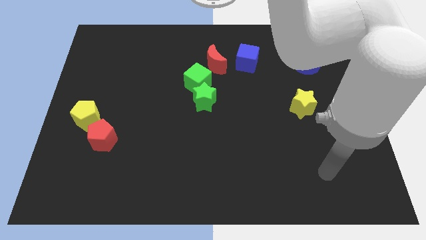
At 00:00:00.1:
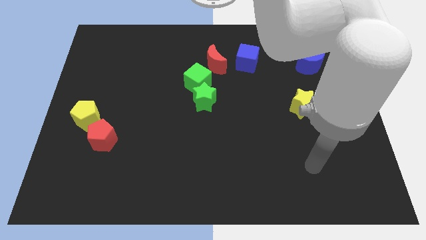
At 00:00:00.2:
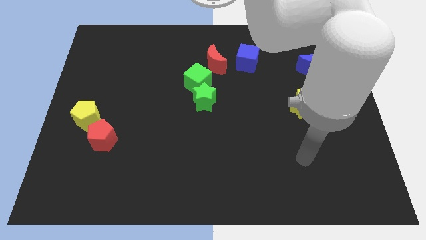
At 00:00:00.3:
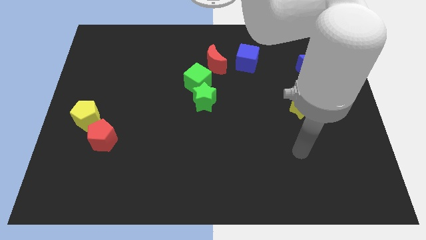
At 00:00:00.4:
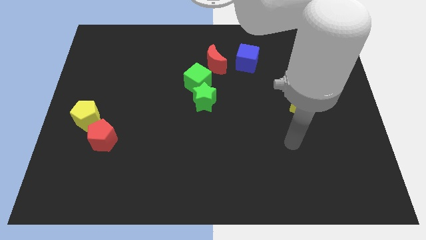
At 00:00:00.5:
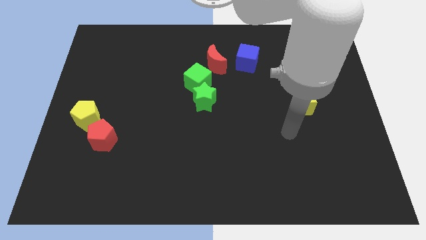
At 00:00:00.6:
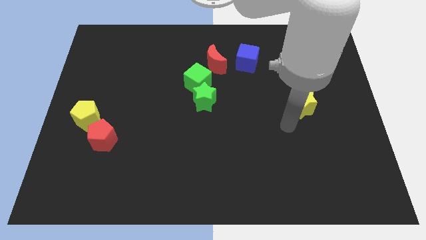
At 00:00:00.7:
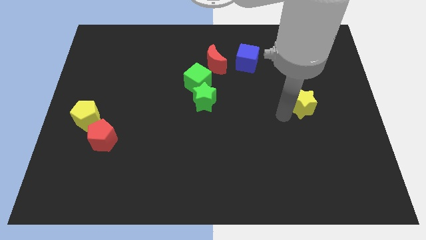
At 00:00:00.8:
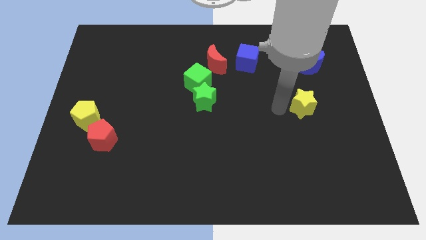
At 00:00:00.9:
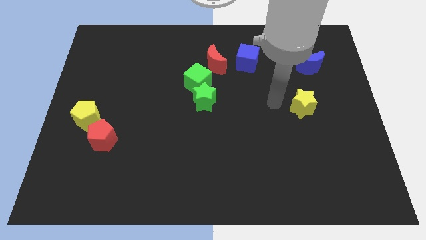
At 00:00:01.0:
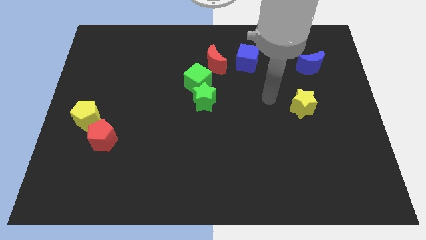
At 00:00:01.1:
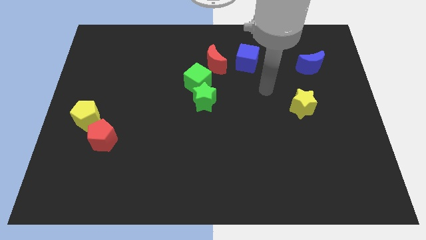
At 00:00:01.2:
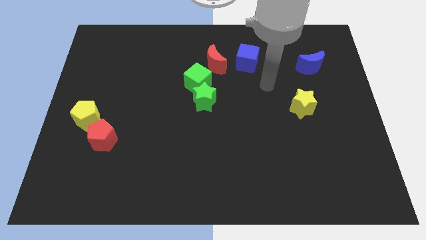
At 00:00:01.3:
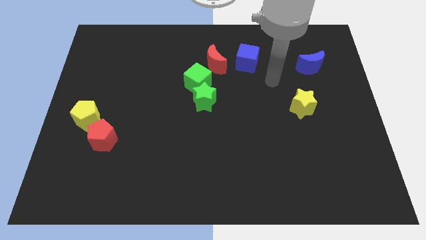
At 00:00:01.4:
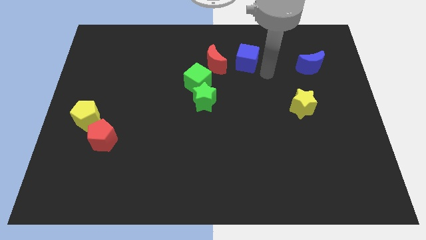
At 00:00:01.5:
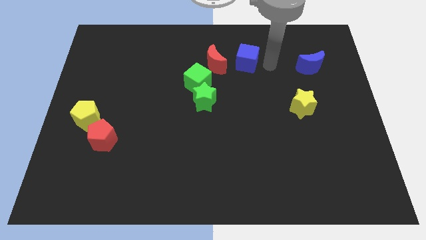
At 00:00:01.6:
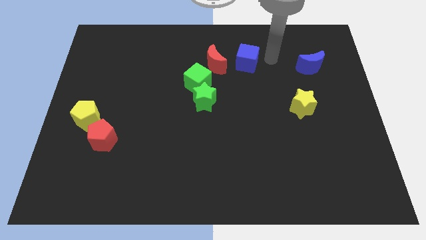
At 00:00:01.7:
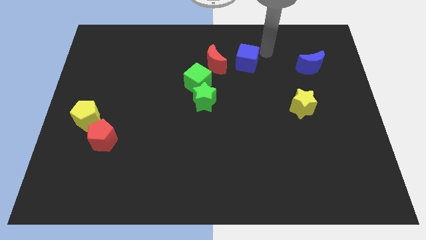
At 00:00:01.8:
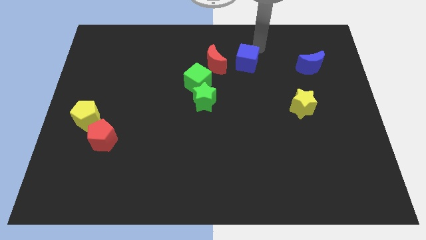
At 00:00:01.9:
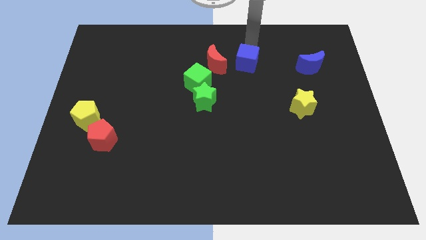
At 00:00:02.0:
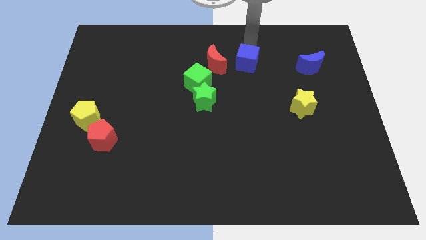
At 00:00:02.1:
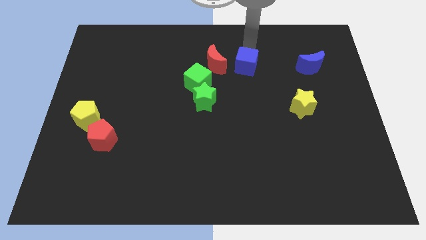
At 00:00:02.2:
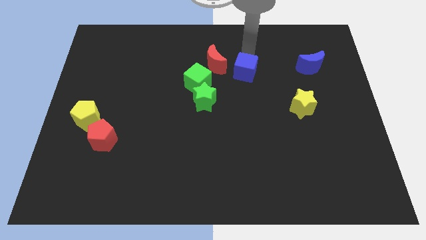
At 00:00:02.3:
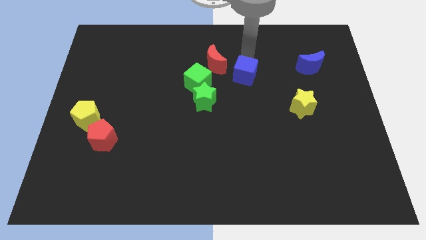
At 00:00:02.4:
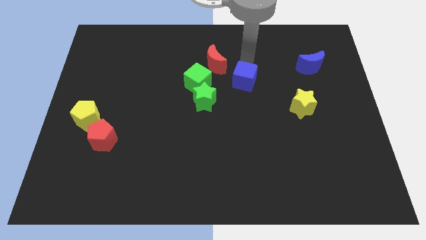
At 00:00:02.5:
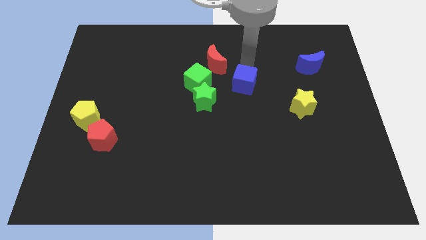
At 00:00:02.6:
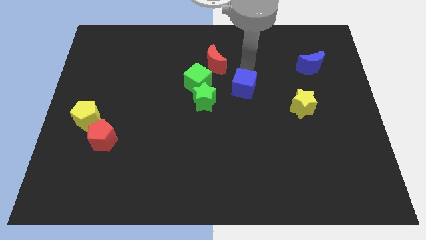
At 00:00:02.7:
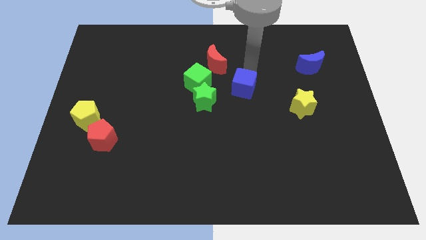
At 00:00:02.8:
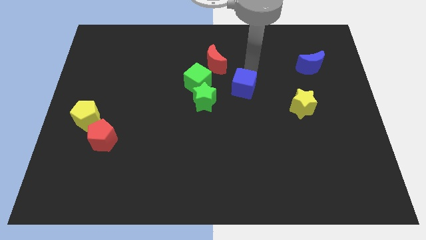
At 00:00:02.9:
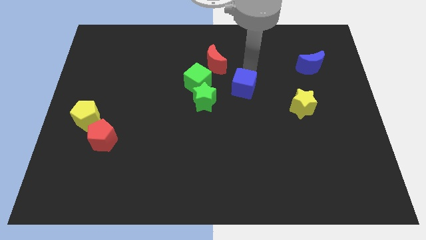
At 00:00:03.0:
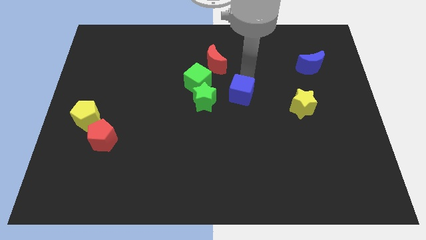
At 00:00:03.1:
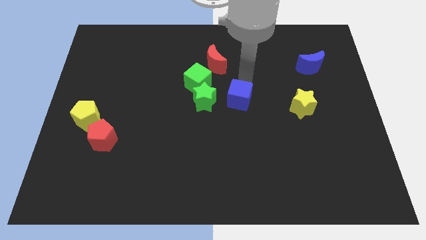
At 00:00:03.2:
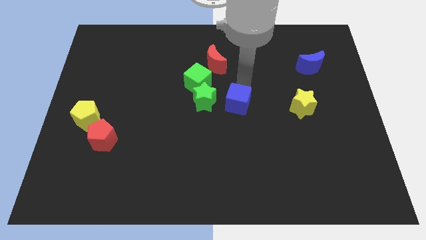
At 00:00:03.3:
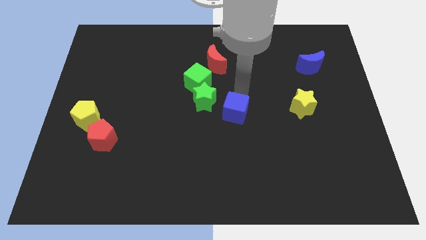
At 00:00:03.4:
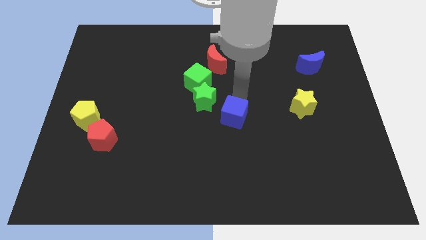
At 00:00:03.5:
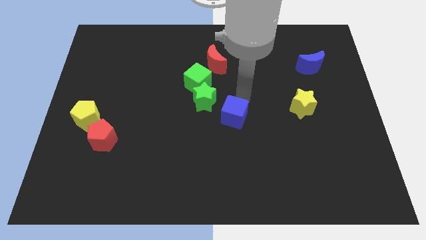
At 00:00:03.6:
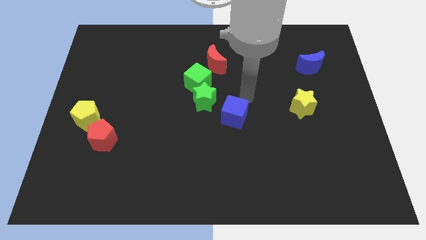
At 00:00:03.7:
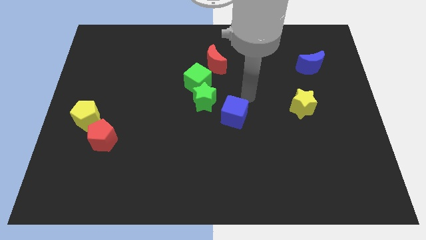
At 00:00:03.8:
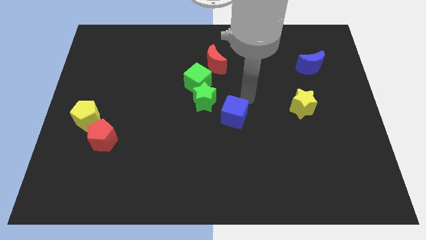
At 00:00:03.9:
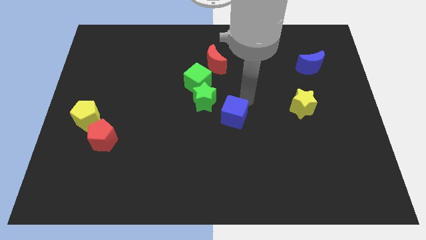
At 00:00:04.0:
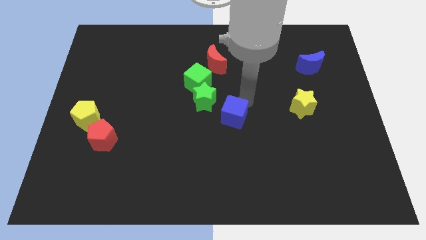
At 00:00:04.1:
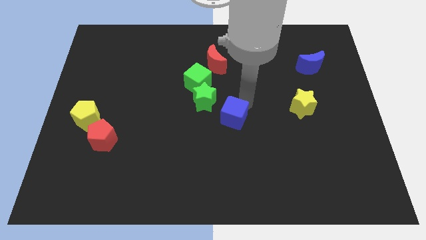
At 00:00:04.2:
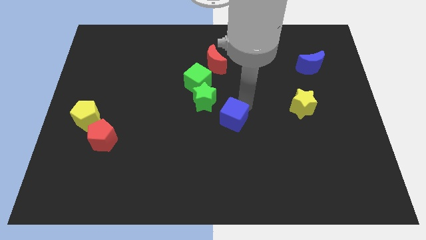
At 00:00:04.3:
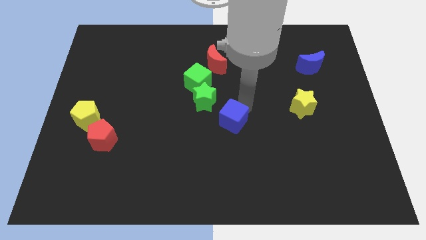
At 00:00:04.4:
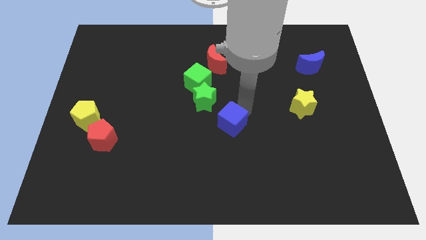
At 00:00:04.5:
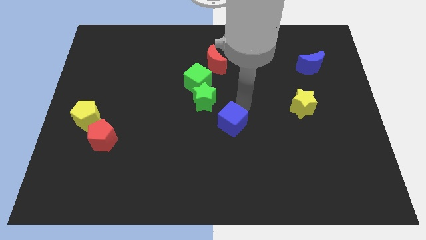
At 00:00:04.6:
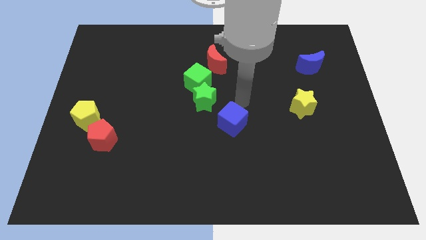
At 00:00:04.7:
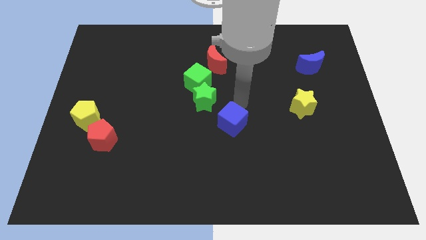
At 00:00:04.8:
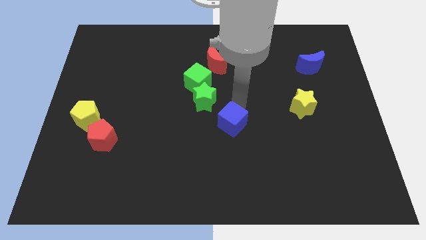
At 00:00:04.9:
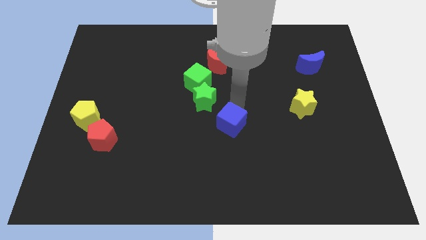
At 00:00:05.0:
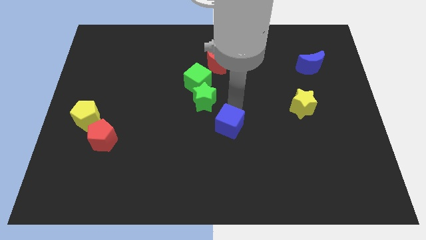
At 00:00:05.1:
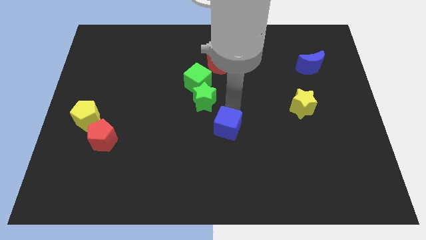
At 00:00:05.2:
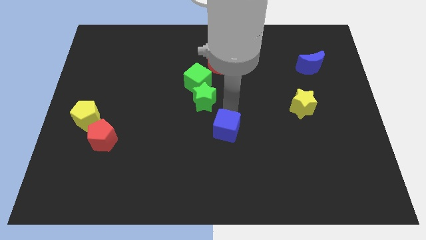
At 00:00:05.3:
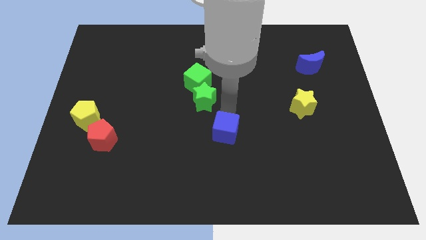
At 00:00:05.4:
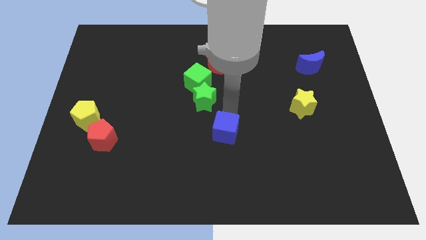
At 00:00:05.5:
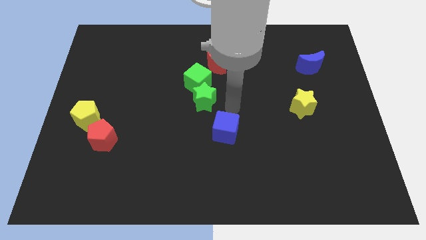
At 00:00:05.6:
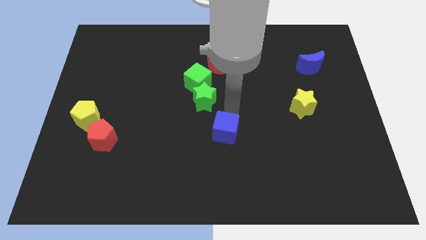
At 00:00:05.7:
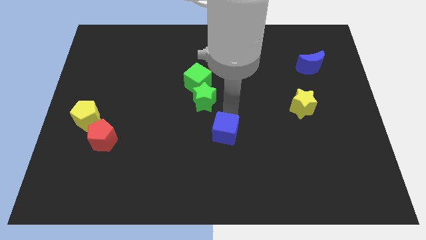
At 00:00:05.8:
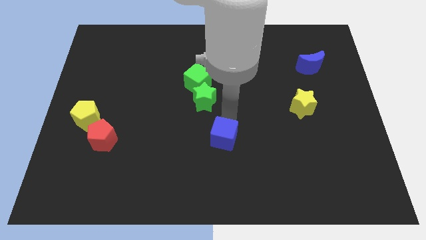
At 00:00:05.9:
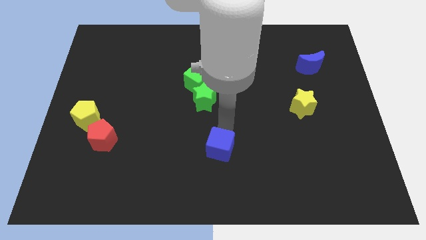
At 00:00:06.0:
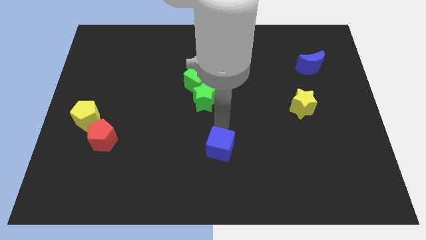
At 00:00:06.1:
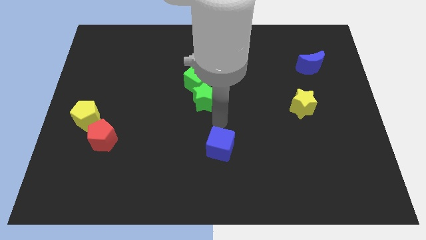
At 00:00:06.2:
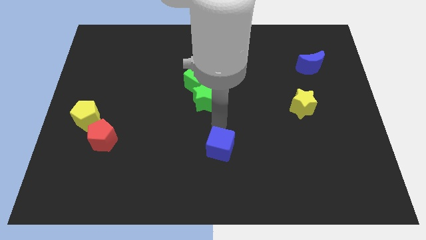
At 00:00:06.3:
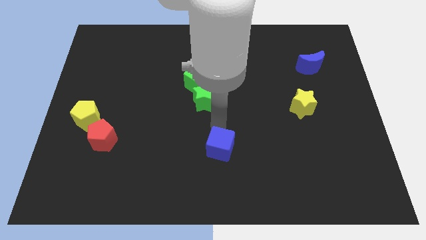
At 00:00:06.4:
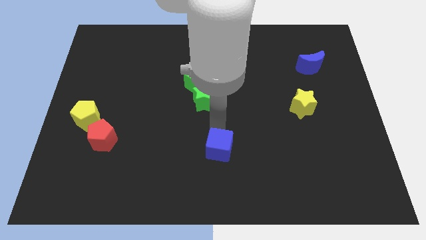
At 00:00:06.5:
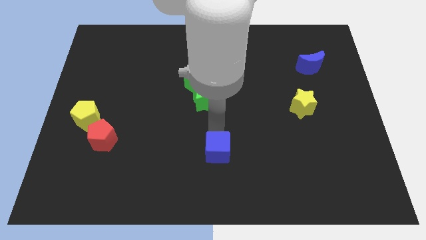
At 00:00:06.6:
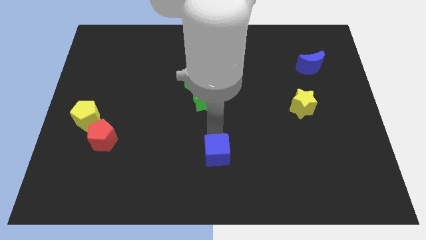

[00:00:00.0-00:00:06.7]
push the blue cube to the bottom side

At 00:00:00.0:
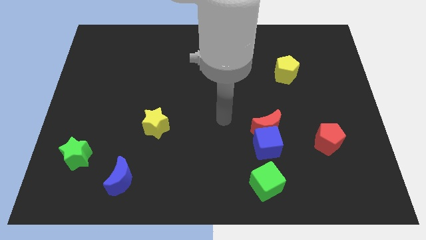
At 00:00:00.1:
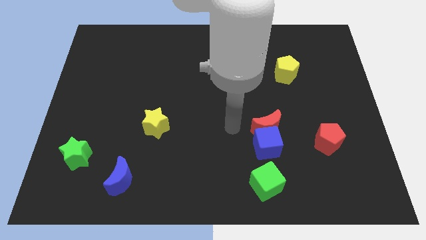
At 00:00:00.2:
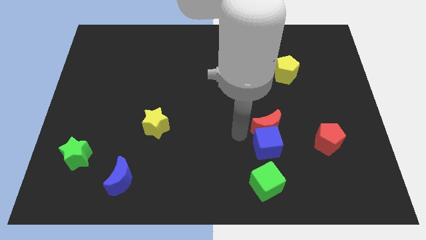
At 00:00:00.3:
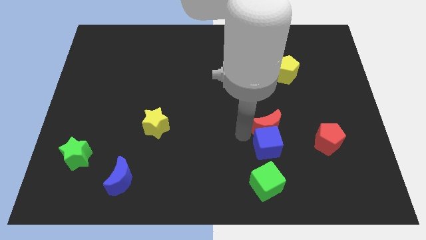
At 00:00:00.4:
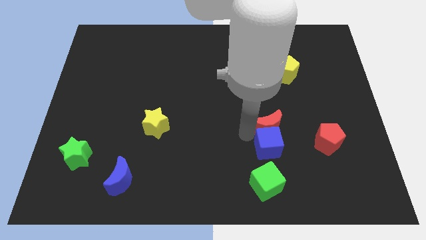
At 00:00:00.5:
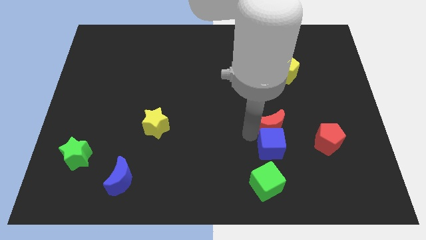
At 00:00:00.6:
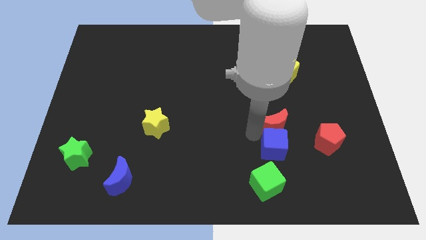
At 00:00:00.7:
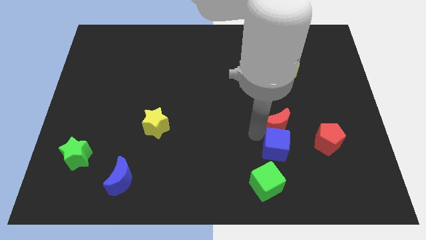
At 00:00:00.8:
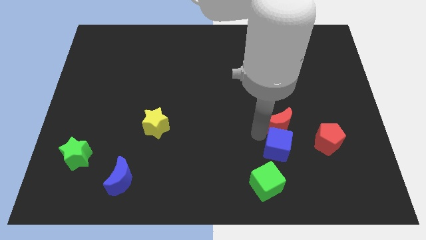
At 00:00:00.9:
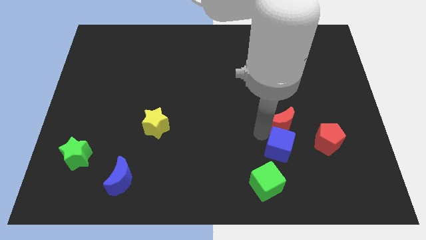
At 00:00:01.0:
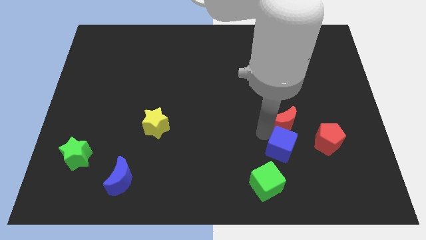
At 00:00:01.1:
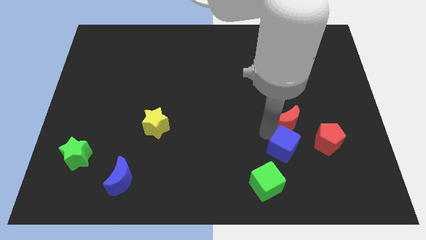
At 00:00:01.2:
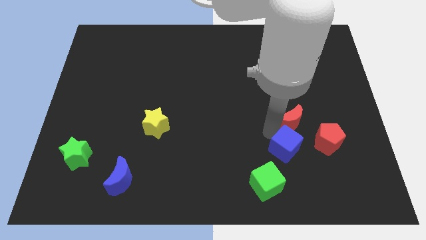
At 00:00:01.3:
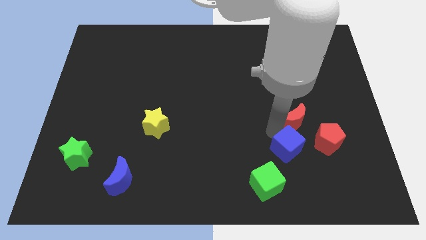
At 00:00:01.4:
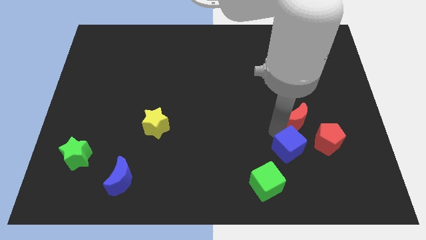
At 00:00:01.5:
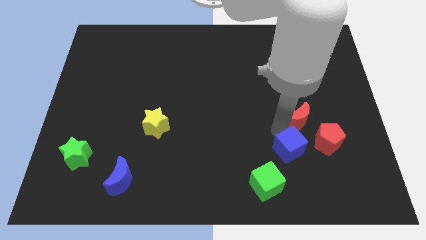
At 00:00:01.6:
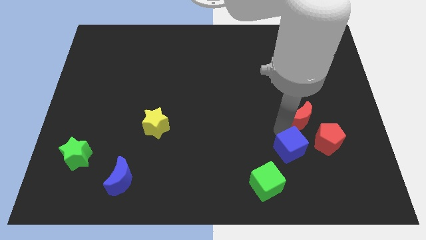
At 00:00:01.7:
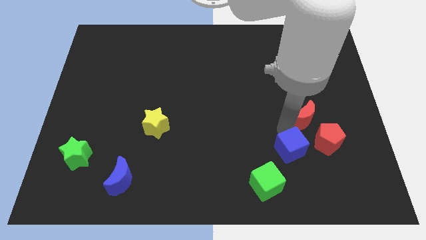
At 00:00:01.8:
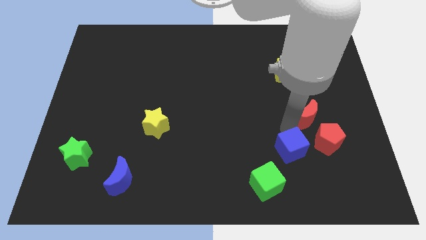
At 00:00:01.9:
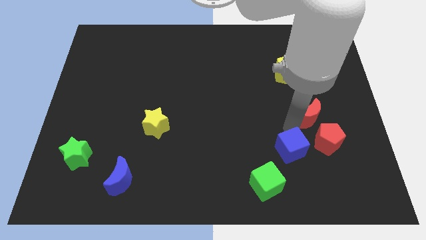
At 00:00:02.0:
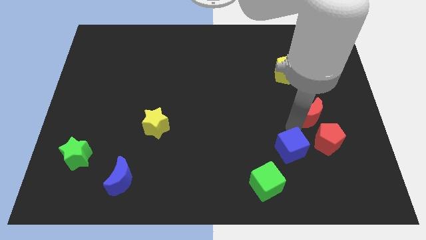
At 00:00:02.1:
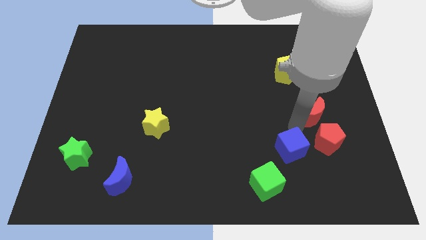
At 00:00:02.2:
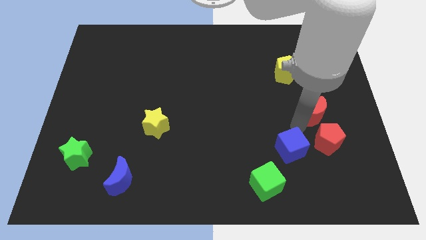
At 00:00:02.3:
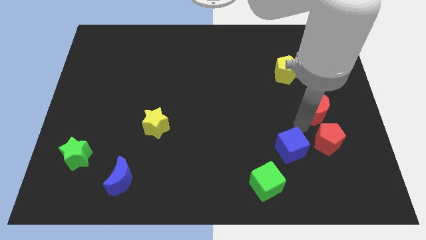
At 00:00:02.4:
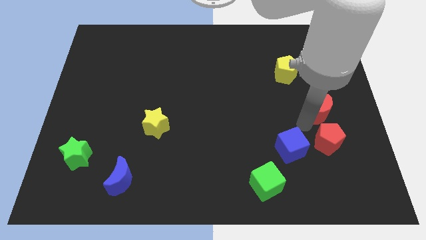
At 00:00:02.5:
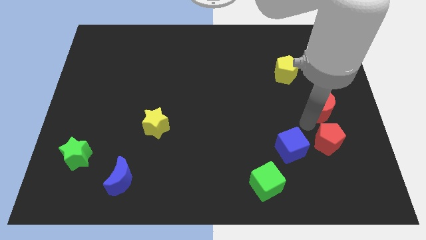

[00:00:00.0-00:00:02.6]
move the red moon to the right side
